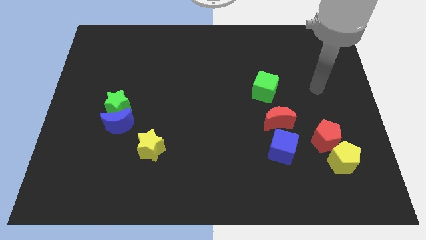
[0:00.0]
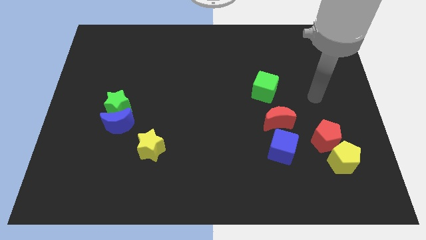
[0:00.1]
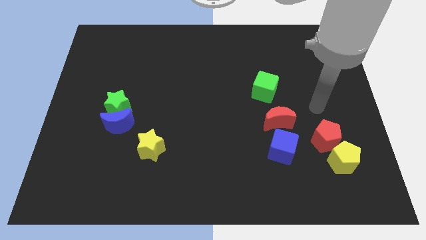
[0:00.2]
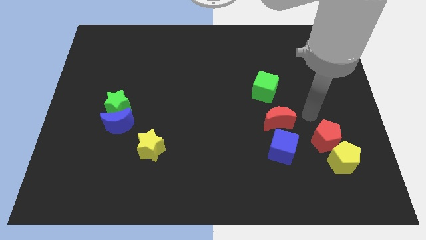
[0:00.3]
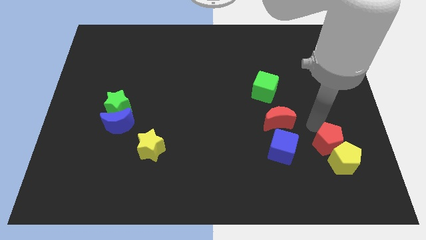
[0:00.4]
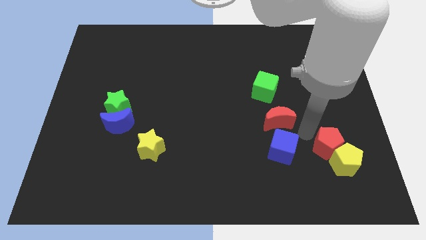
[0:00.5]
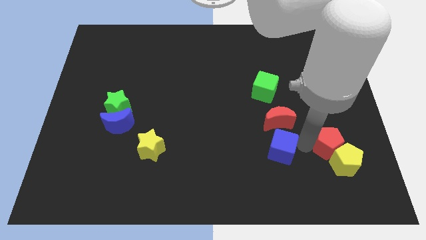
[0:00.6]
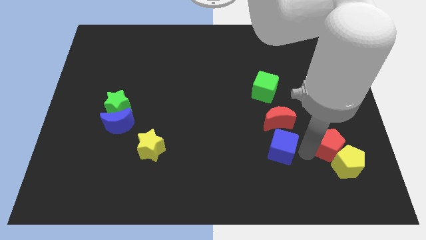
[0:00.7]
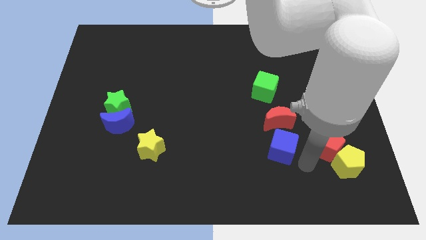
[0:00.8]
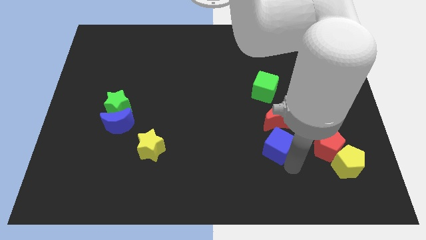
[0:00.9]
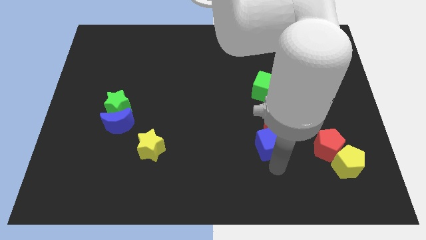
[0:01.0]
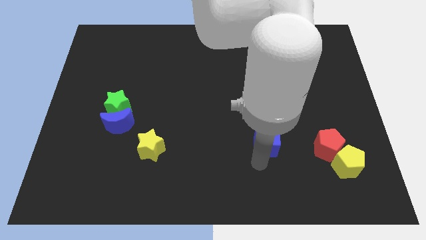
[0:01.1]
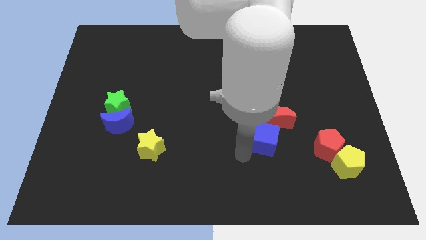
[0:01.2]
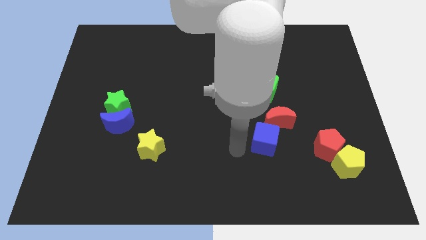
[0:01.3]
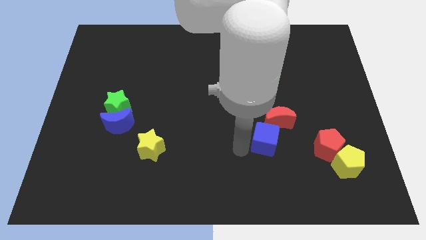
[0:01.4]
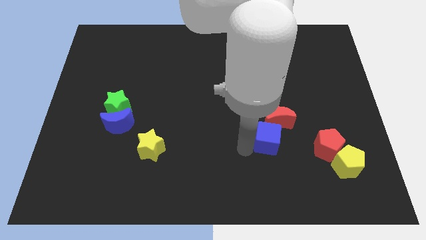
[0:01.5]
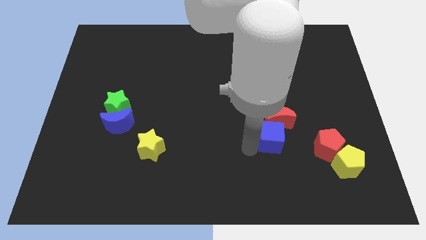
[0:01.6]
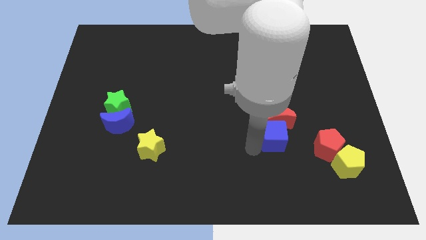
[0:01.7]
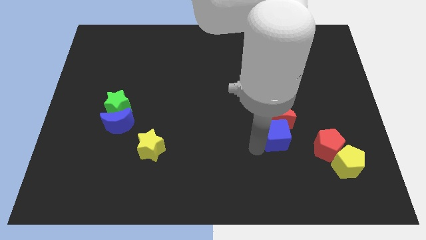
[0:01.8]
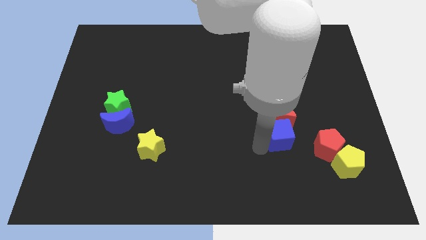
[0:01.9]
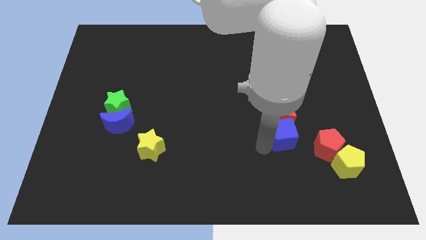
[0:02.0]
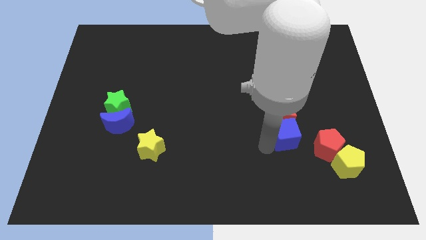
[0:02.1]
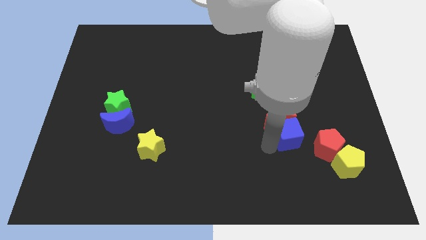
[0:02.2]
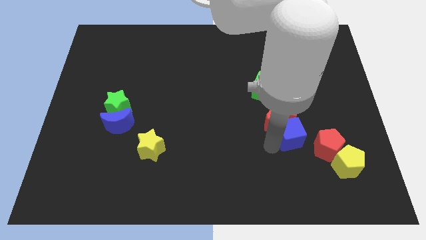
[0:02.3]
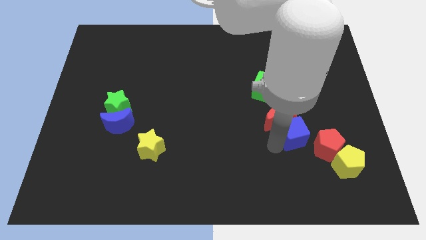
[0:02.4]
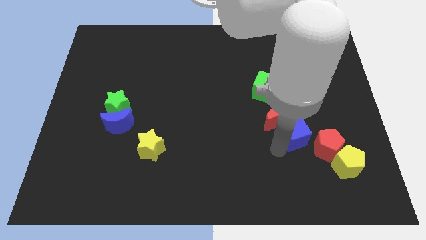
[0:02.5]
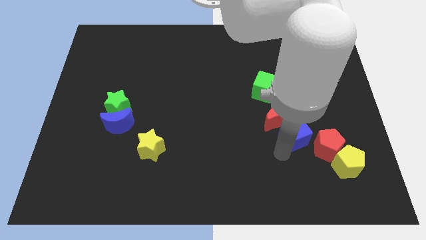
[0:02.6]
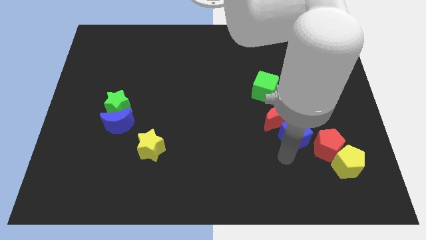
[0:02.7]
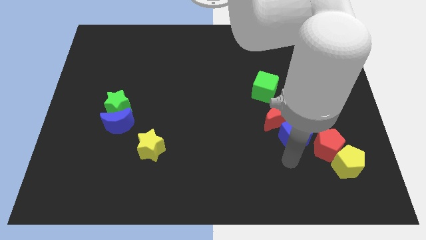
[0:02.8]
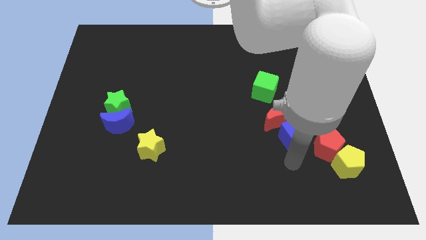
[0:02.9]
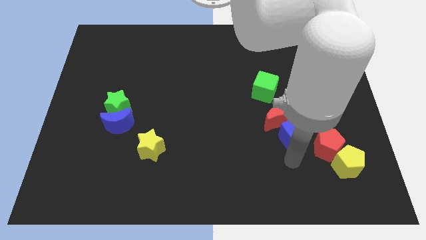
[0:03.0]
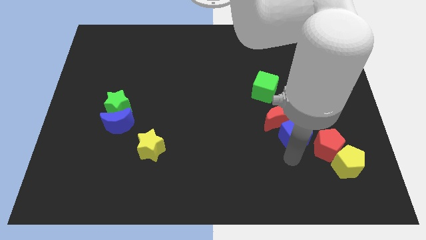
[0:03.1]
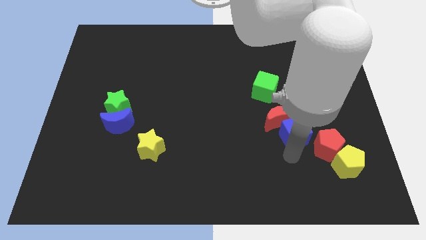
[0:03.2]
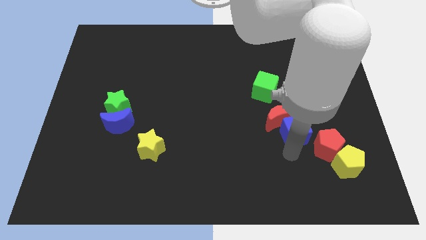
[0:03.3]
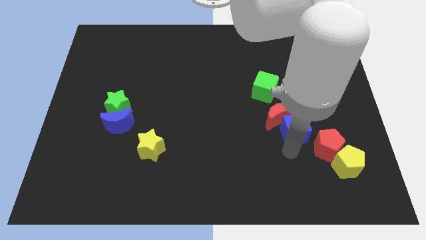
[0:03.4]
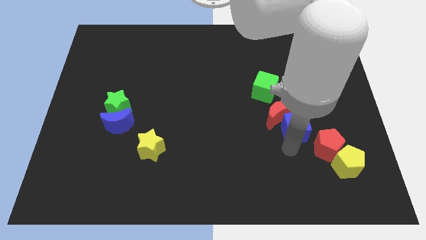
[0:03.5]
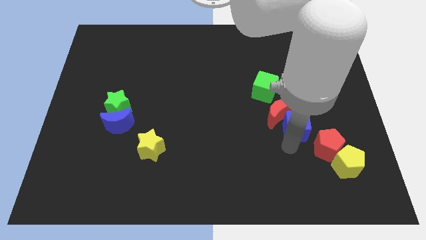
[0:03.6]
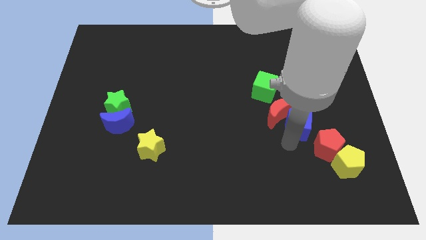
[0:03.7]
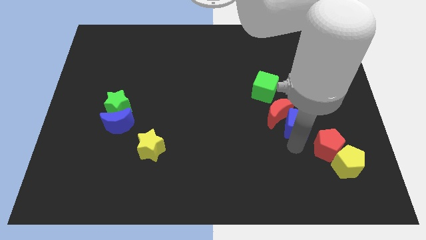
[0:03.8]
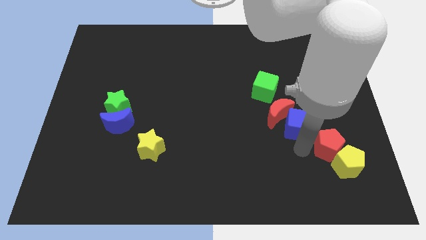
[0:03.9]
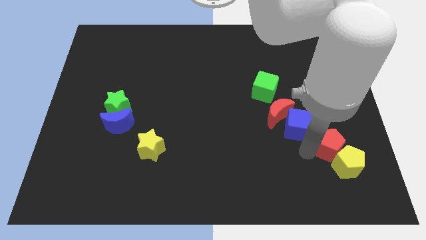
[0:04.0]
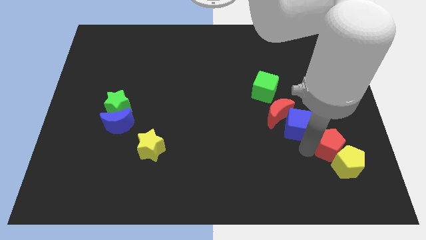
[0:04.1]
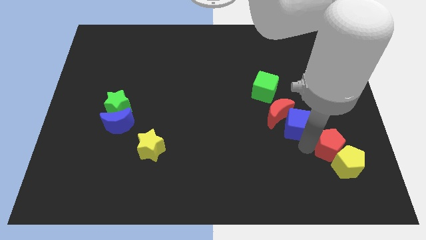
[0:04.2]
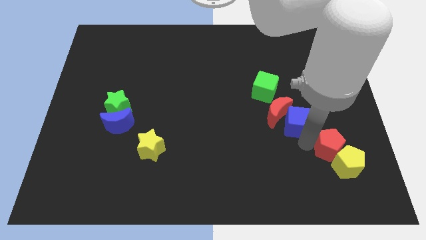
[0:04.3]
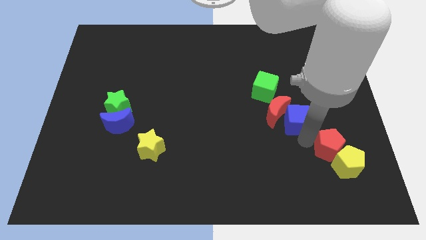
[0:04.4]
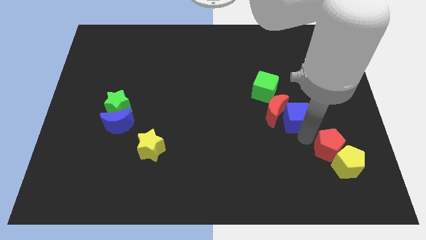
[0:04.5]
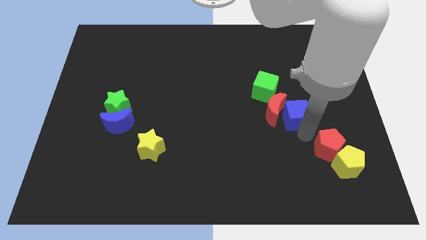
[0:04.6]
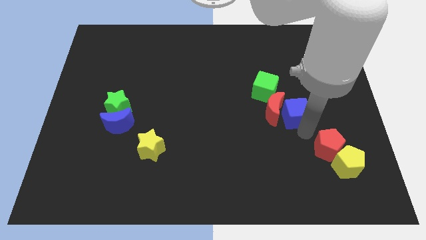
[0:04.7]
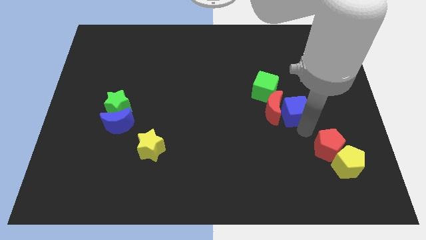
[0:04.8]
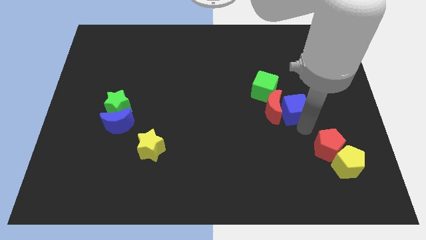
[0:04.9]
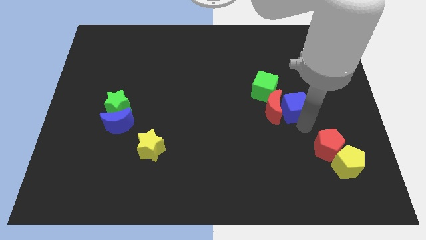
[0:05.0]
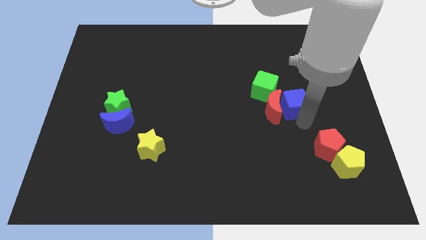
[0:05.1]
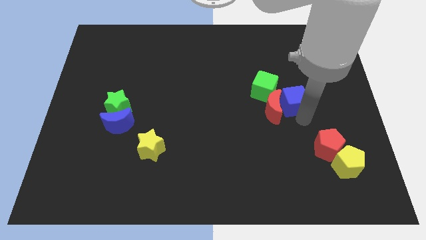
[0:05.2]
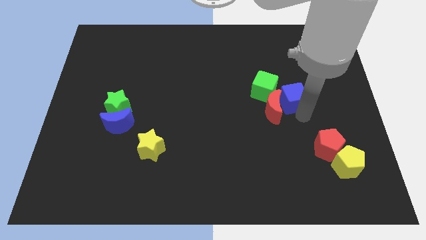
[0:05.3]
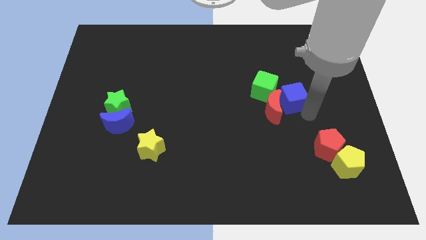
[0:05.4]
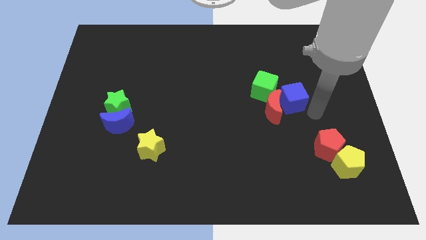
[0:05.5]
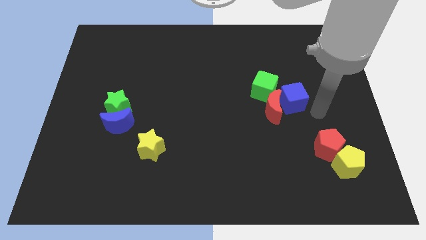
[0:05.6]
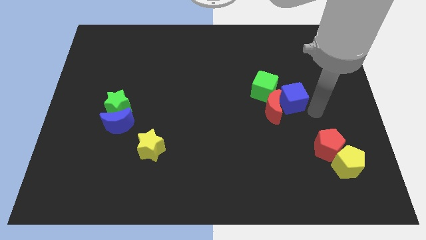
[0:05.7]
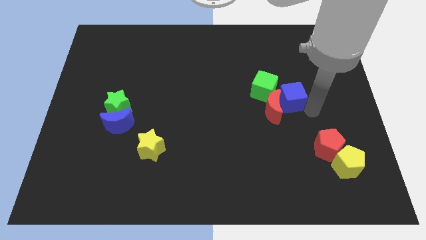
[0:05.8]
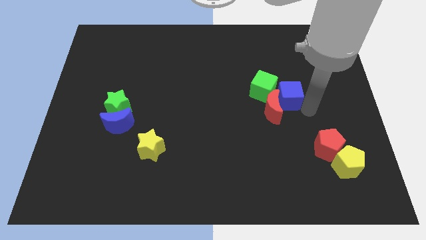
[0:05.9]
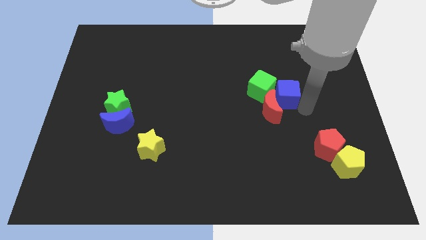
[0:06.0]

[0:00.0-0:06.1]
push the blue cube next to the green cube

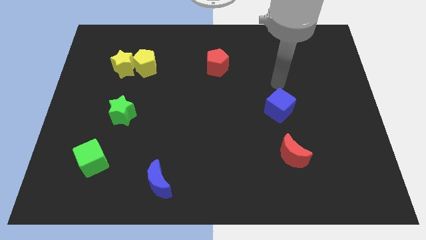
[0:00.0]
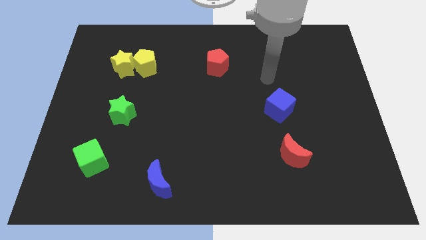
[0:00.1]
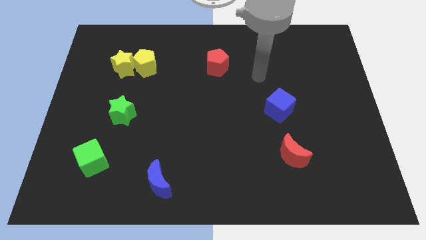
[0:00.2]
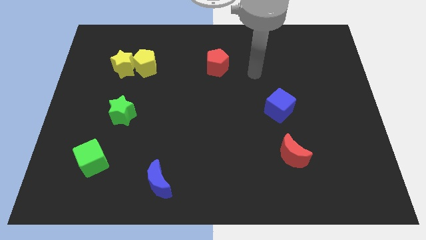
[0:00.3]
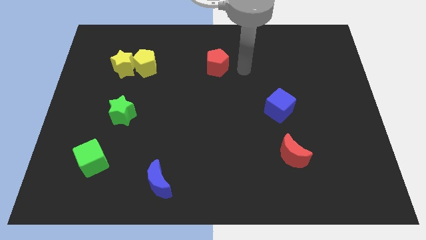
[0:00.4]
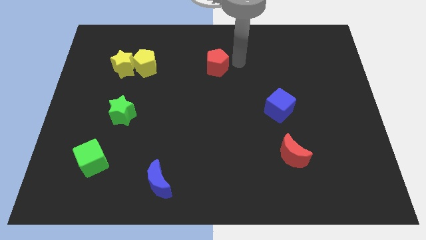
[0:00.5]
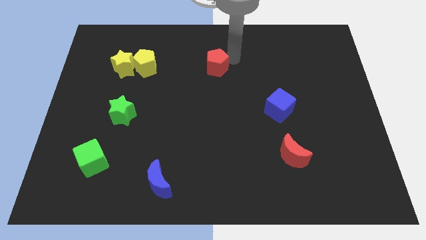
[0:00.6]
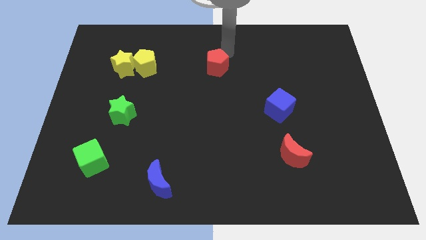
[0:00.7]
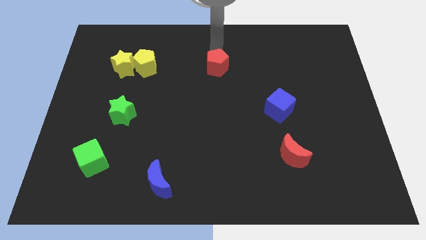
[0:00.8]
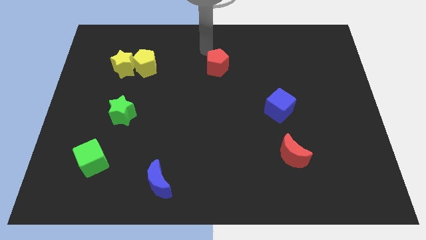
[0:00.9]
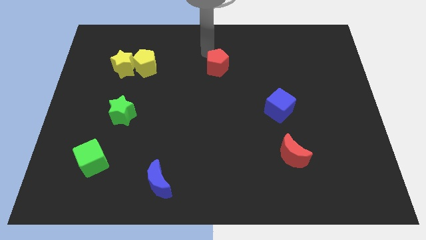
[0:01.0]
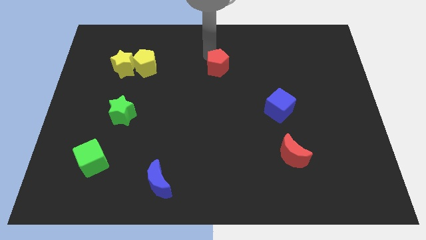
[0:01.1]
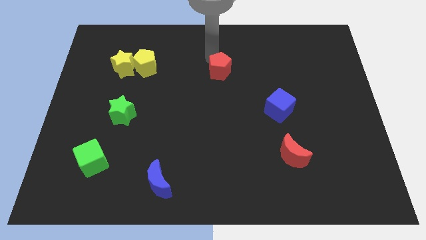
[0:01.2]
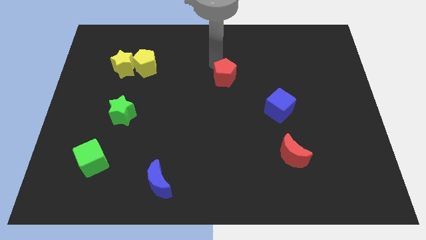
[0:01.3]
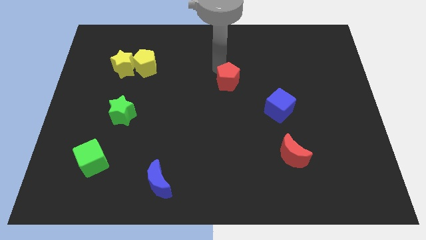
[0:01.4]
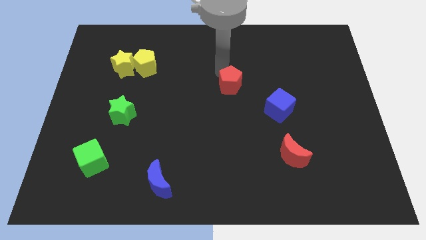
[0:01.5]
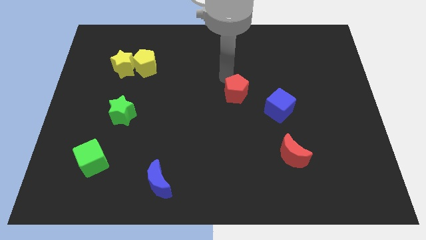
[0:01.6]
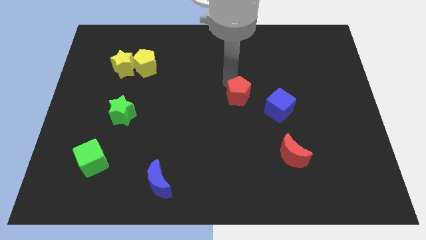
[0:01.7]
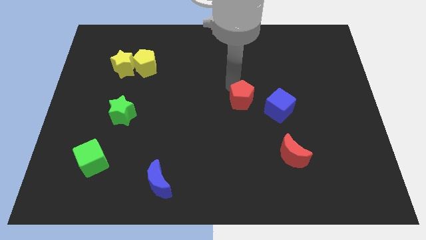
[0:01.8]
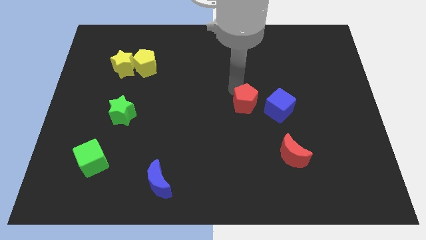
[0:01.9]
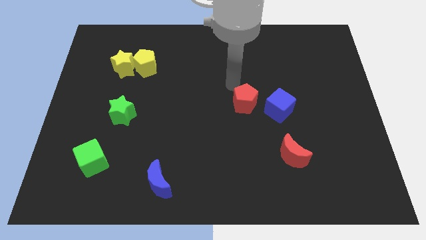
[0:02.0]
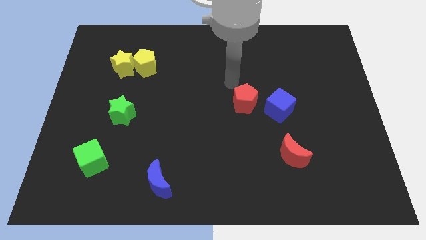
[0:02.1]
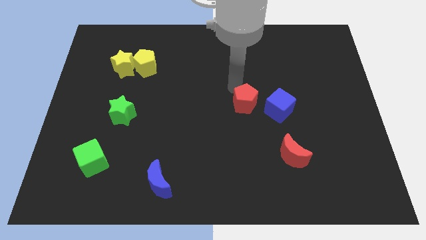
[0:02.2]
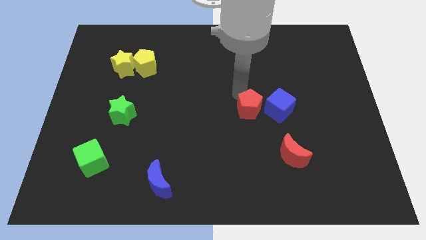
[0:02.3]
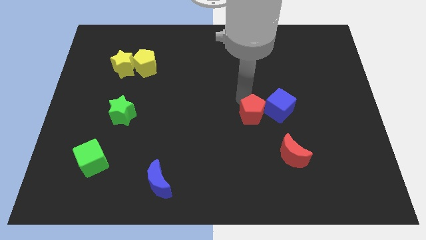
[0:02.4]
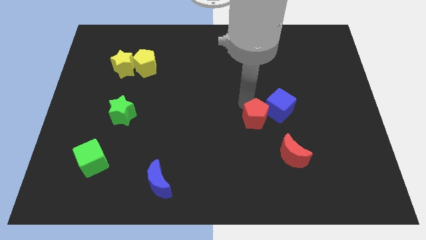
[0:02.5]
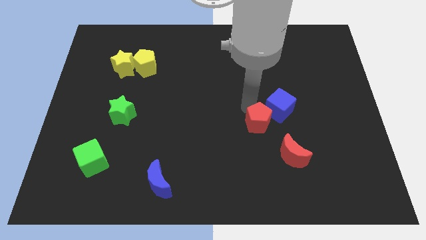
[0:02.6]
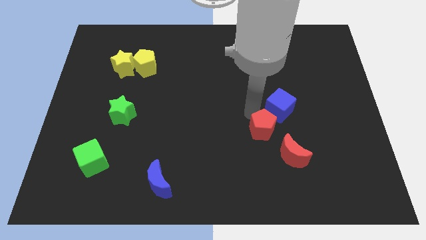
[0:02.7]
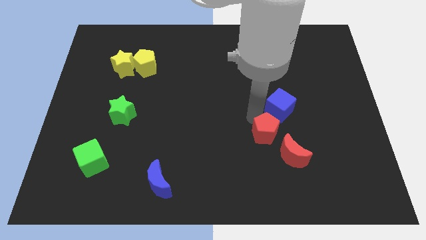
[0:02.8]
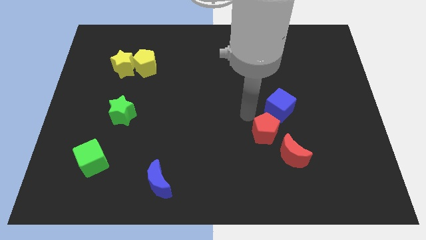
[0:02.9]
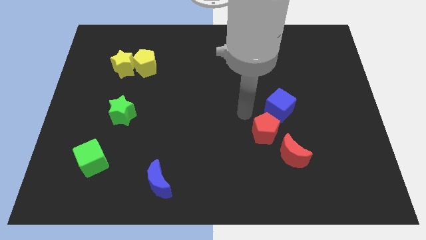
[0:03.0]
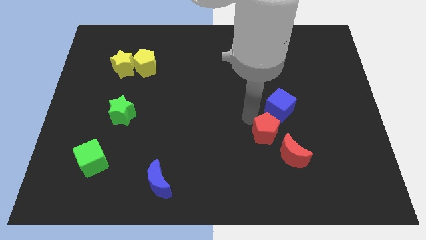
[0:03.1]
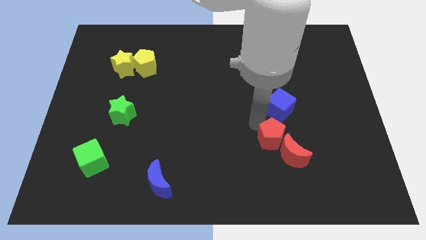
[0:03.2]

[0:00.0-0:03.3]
push the red pentagon to the red moon
